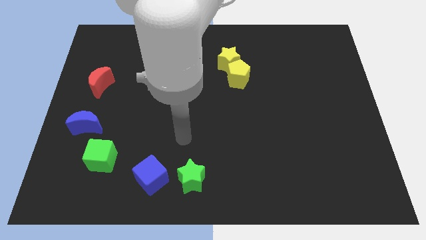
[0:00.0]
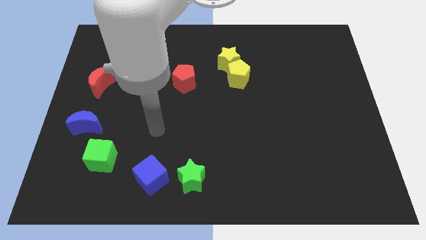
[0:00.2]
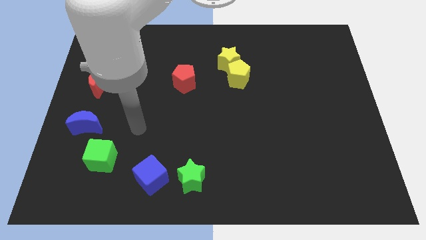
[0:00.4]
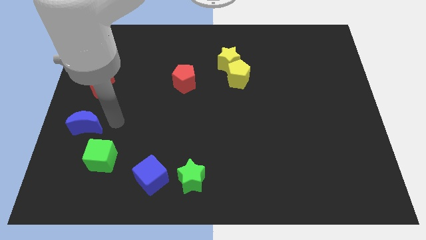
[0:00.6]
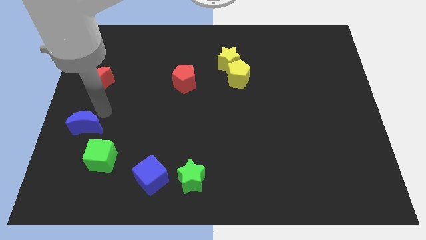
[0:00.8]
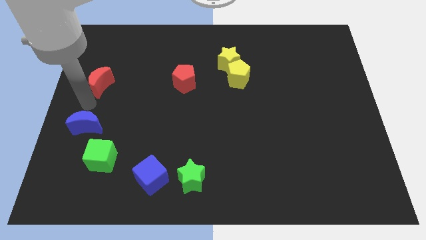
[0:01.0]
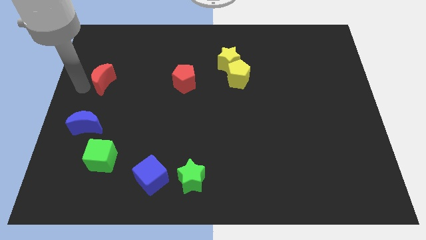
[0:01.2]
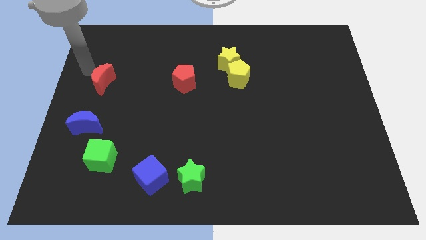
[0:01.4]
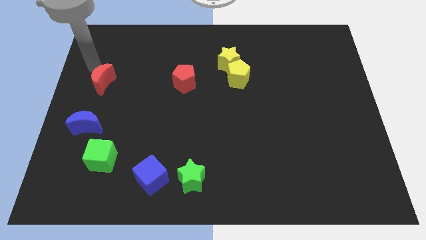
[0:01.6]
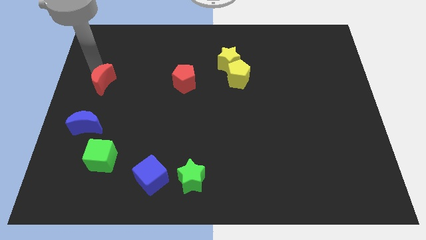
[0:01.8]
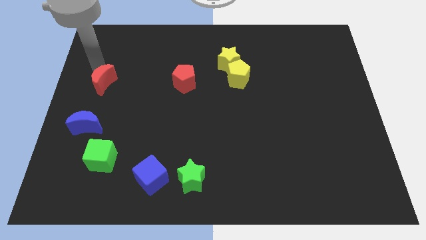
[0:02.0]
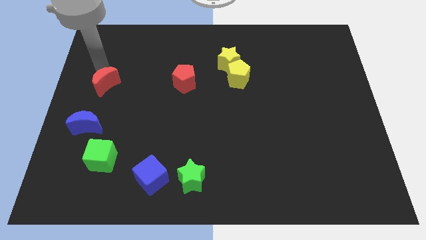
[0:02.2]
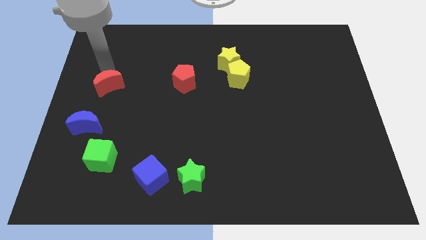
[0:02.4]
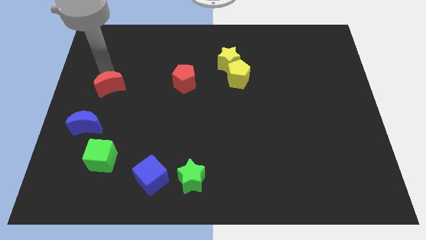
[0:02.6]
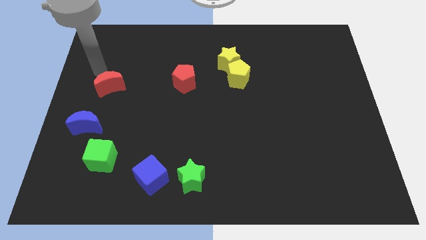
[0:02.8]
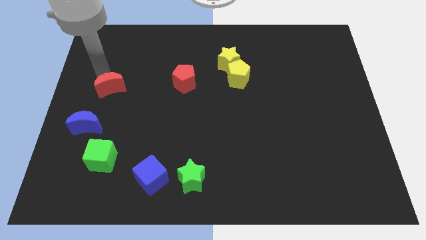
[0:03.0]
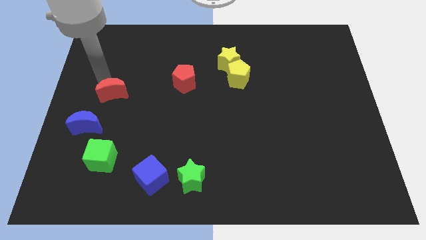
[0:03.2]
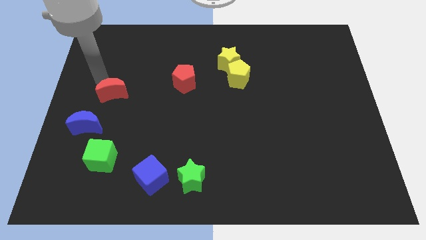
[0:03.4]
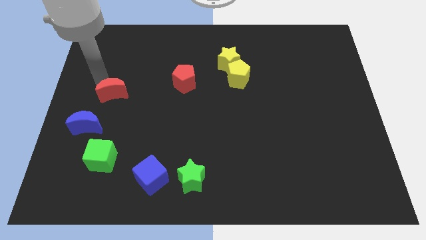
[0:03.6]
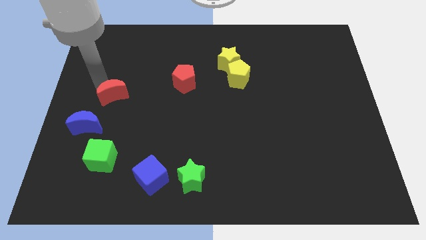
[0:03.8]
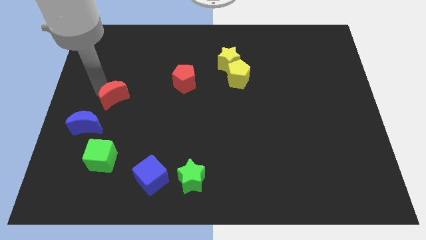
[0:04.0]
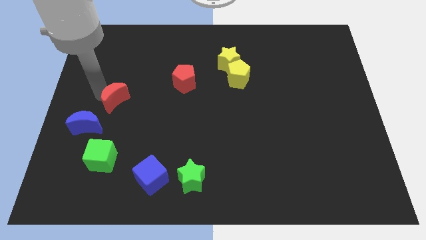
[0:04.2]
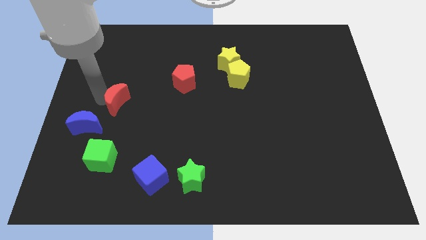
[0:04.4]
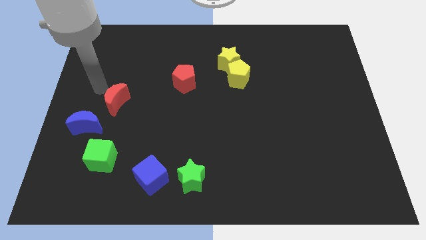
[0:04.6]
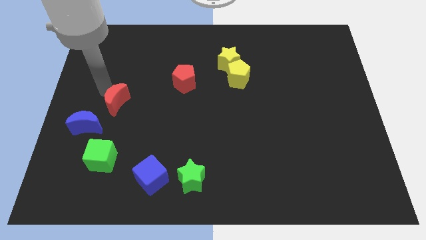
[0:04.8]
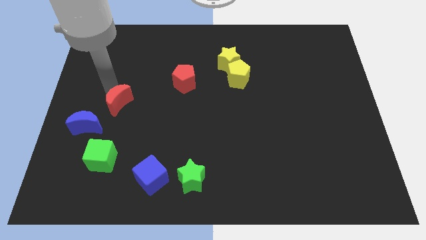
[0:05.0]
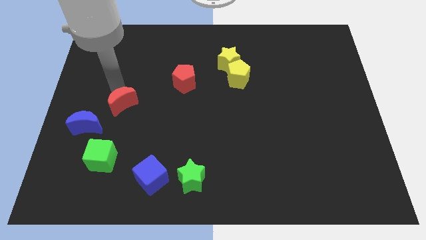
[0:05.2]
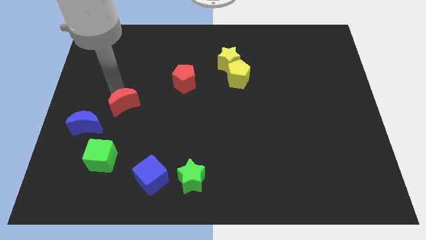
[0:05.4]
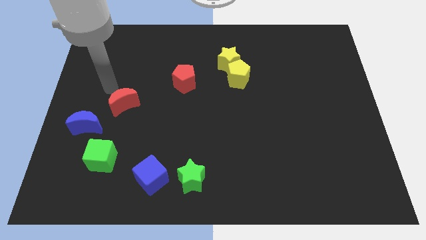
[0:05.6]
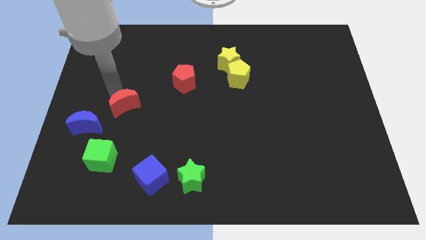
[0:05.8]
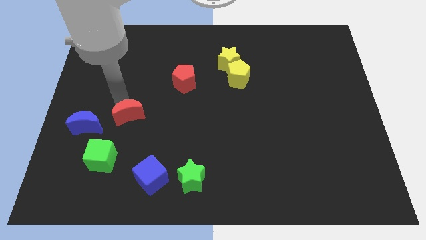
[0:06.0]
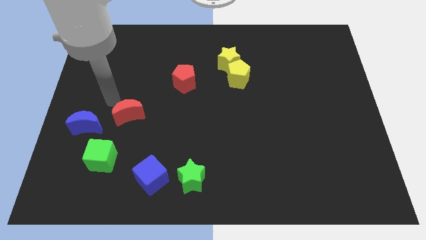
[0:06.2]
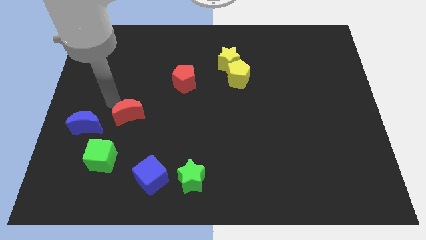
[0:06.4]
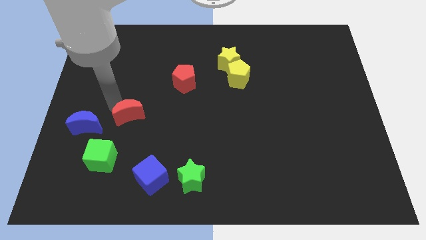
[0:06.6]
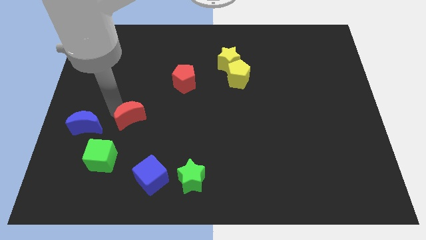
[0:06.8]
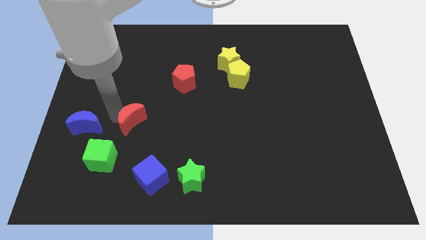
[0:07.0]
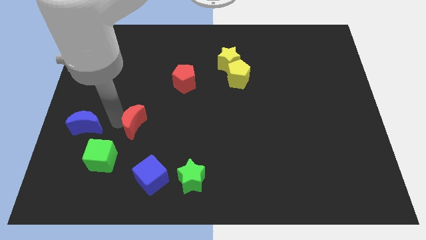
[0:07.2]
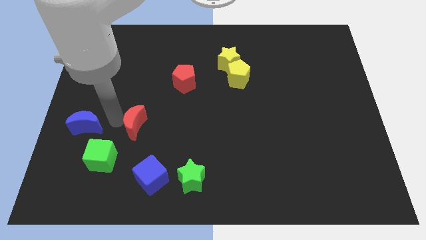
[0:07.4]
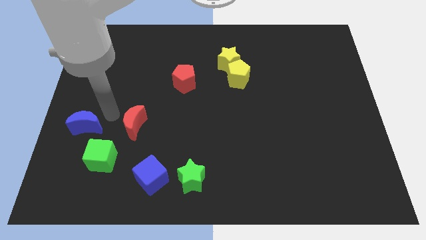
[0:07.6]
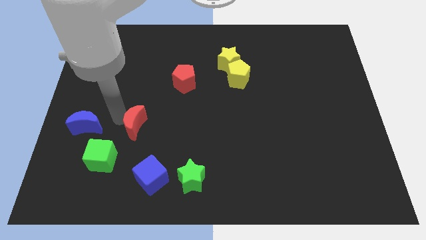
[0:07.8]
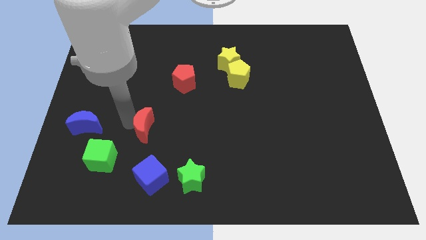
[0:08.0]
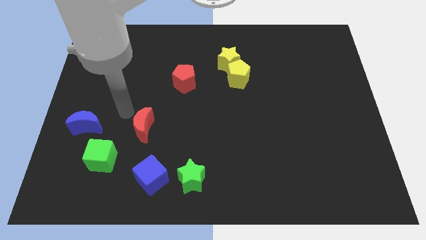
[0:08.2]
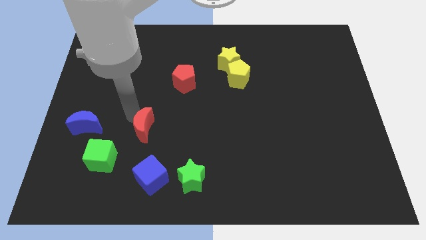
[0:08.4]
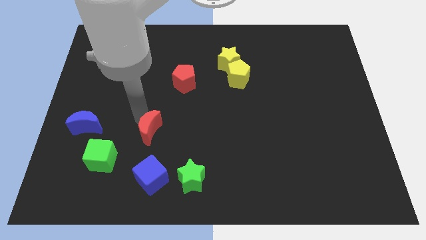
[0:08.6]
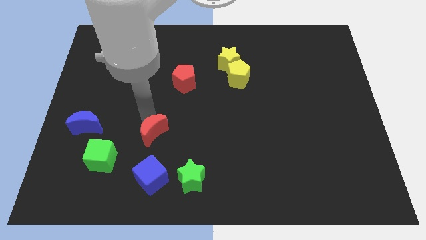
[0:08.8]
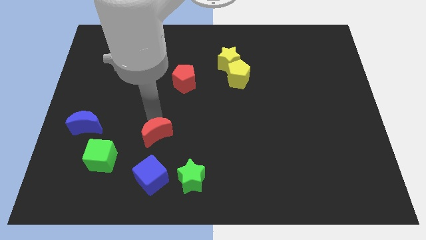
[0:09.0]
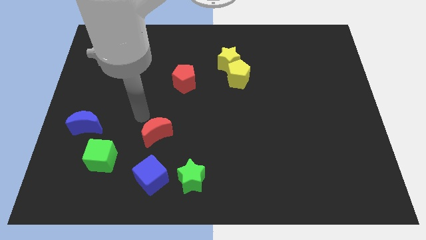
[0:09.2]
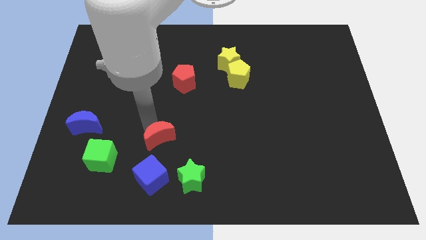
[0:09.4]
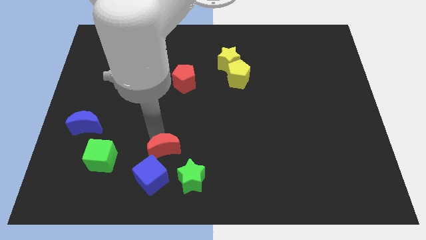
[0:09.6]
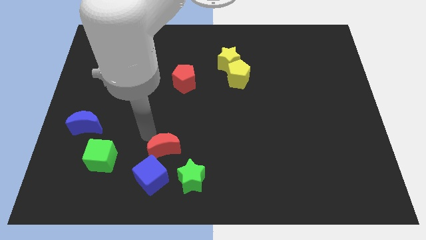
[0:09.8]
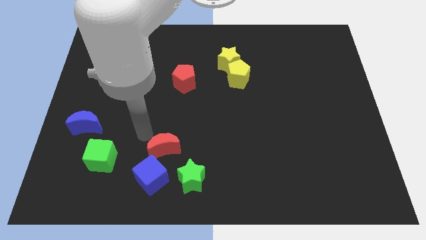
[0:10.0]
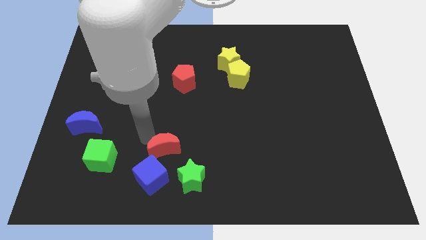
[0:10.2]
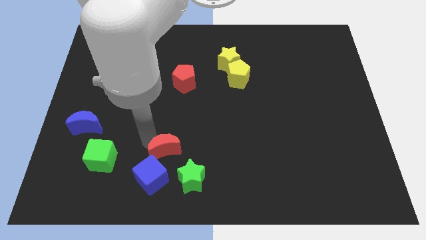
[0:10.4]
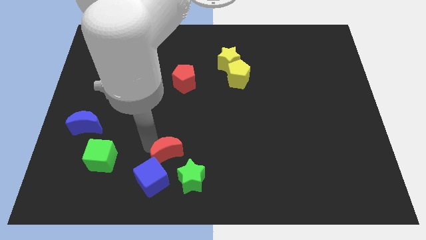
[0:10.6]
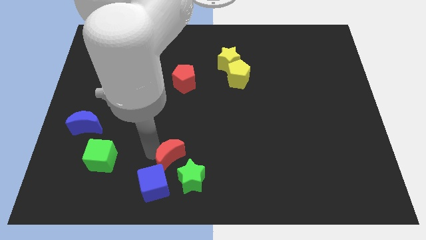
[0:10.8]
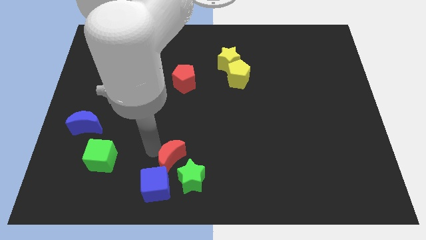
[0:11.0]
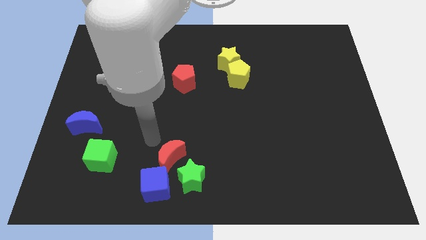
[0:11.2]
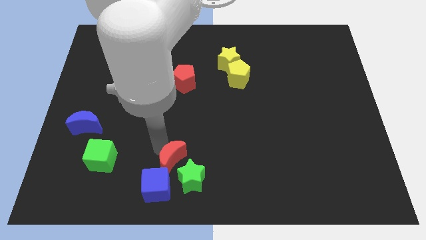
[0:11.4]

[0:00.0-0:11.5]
put the red moon close to the green star

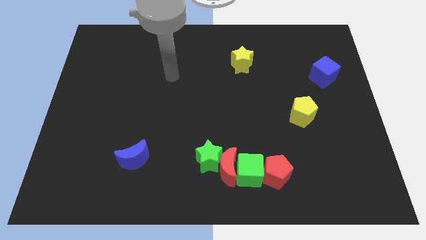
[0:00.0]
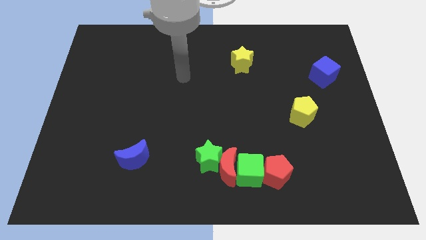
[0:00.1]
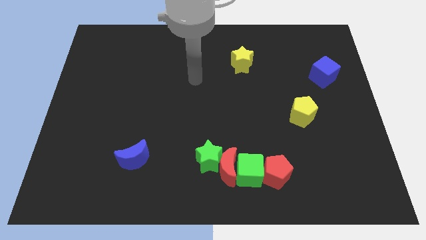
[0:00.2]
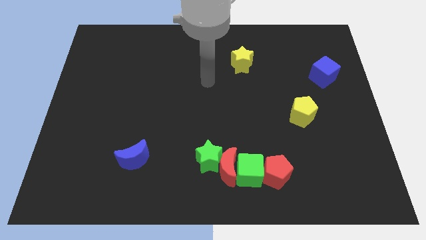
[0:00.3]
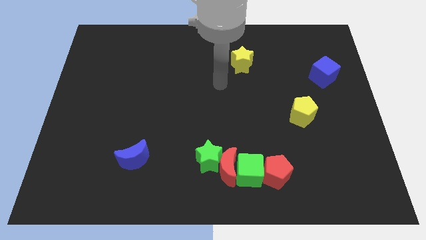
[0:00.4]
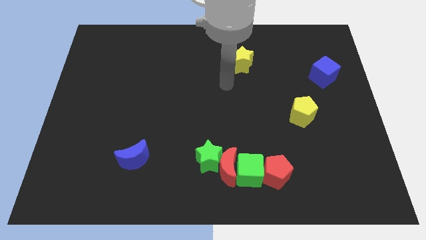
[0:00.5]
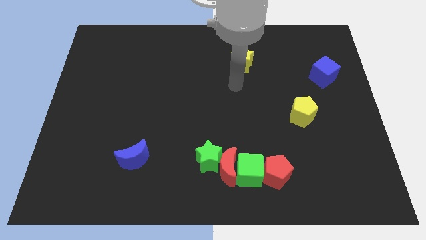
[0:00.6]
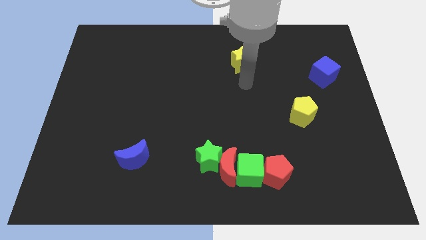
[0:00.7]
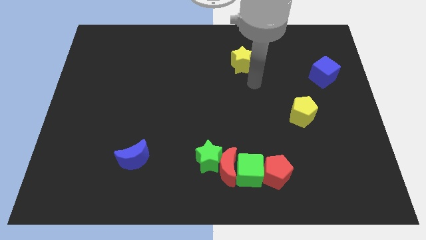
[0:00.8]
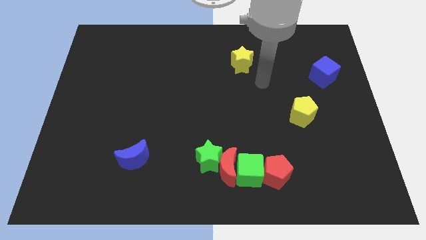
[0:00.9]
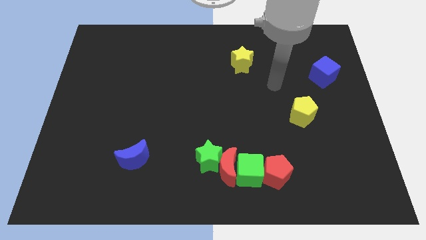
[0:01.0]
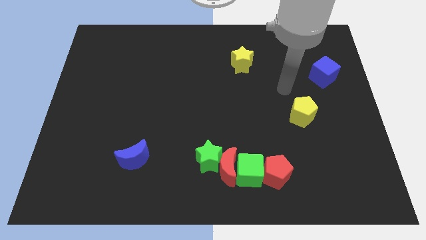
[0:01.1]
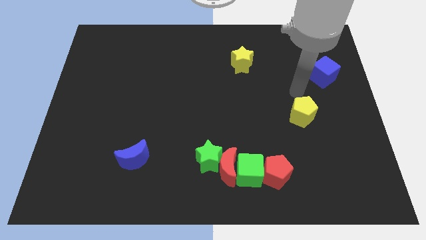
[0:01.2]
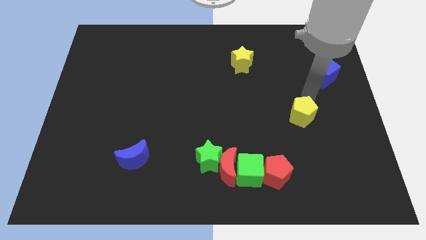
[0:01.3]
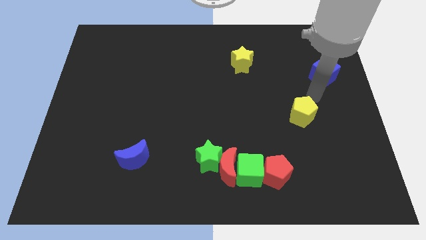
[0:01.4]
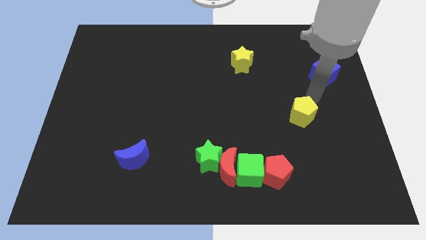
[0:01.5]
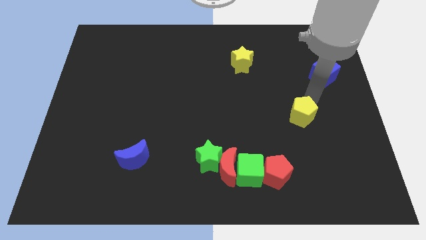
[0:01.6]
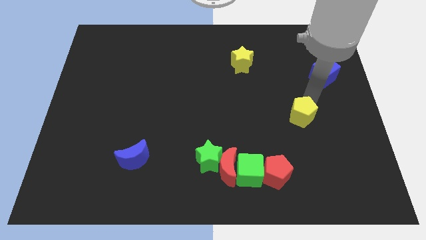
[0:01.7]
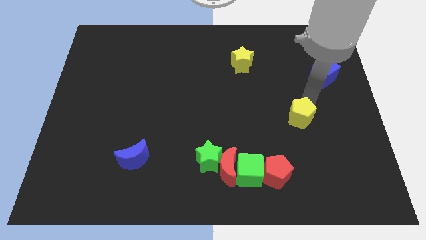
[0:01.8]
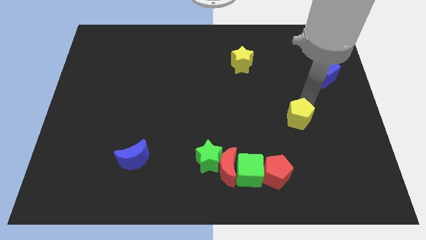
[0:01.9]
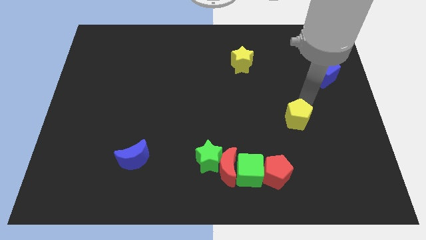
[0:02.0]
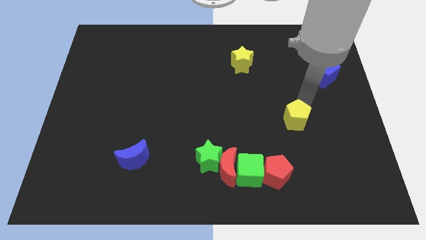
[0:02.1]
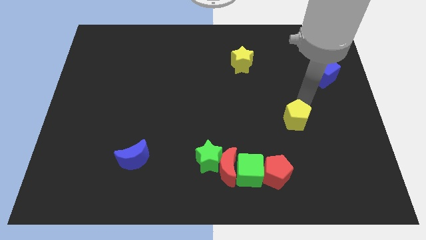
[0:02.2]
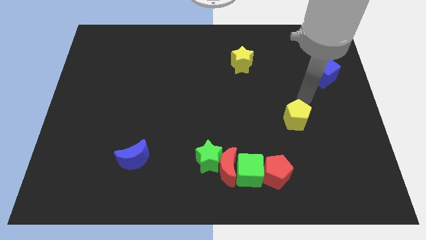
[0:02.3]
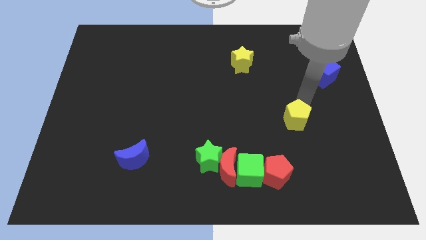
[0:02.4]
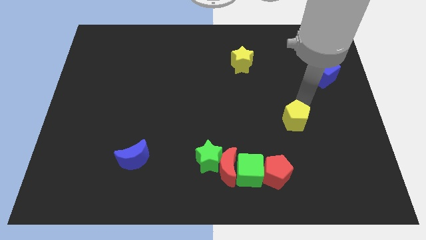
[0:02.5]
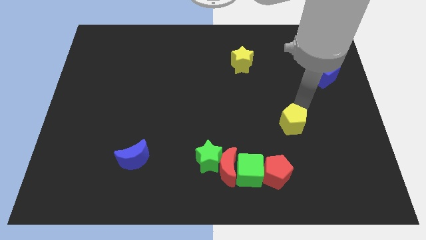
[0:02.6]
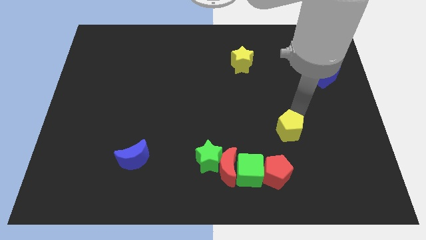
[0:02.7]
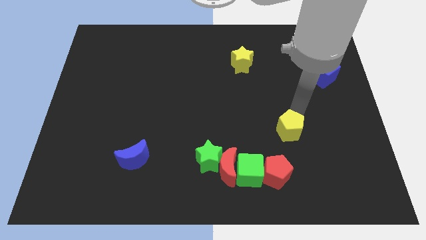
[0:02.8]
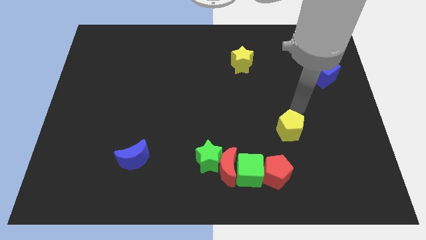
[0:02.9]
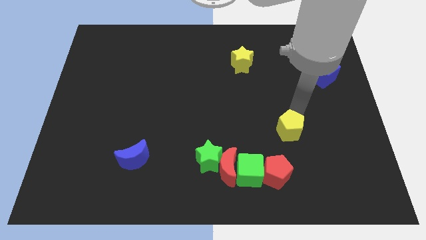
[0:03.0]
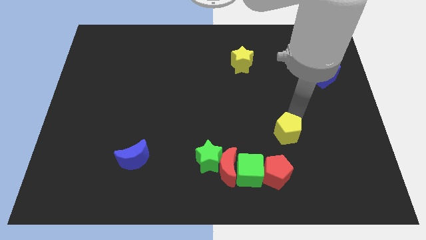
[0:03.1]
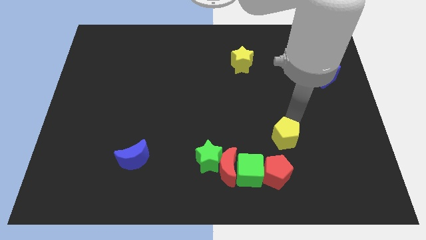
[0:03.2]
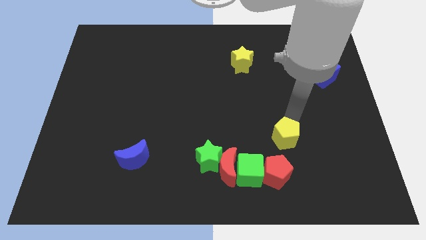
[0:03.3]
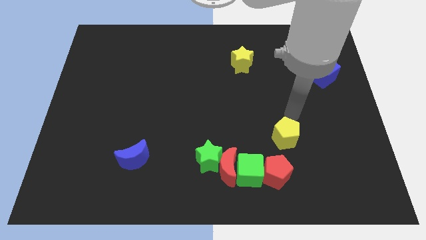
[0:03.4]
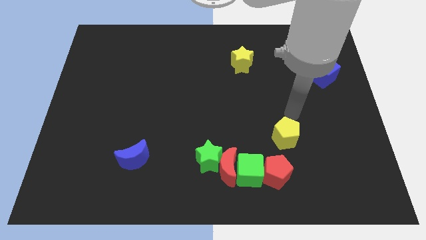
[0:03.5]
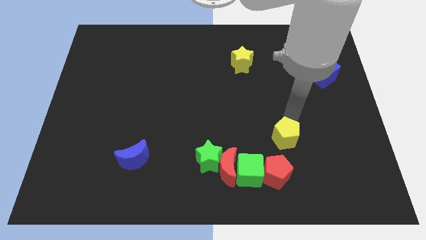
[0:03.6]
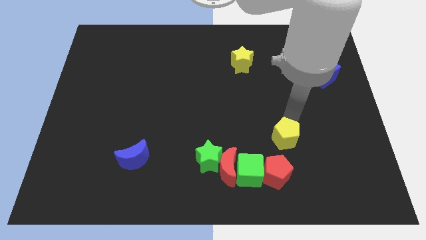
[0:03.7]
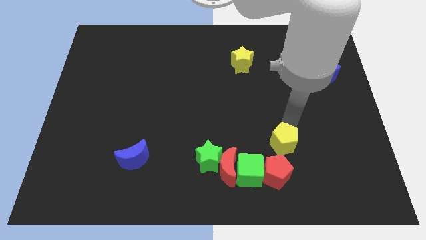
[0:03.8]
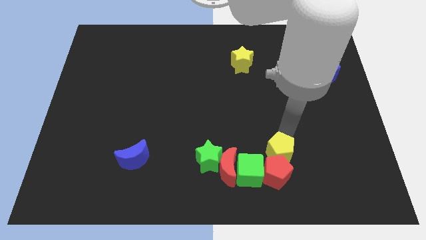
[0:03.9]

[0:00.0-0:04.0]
put the yellow pentagon close to the red pentagon
